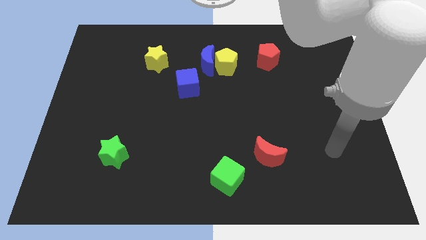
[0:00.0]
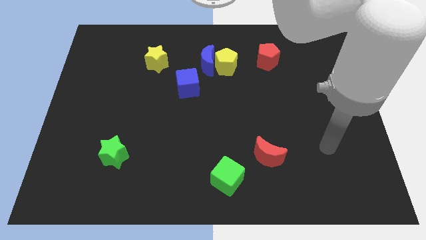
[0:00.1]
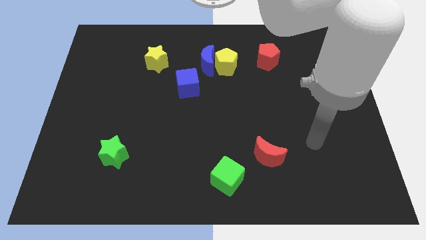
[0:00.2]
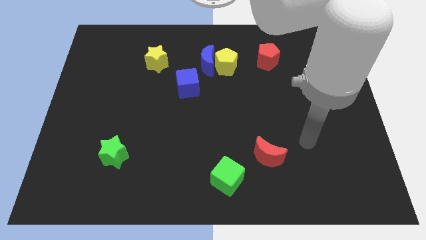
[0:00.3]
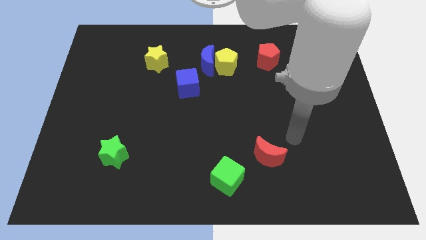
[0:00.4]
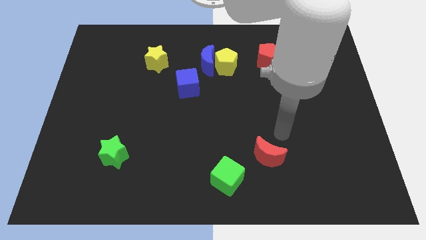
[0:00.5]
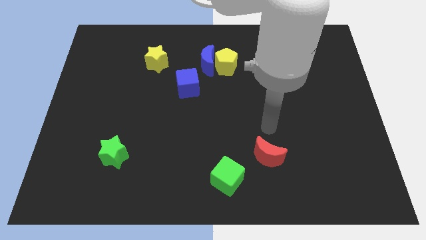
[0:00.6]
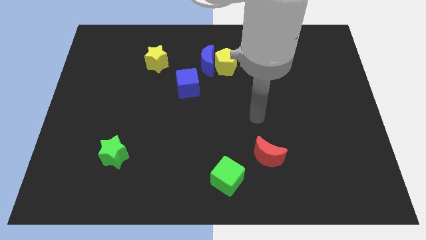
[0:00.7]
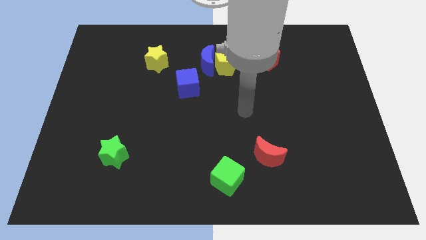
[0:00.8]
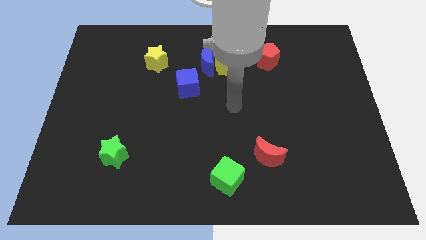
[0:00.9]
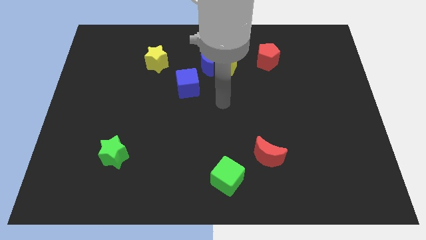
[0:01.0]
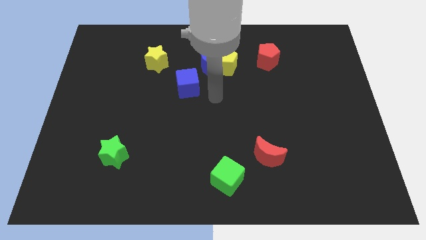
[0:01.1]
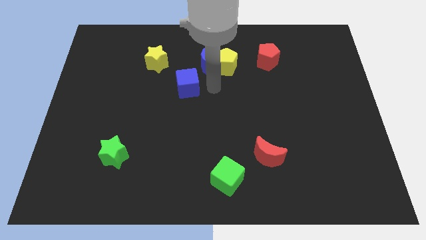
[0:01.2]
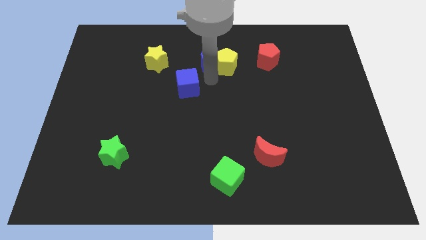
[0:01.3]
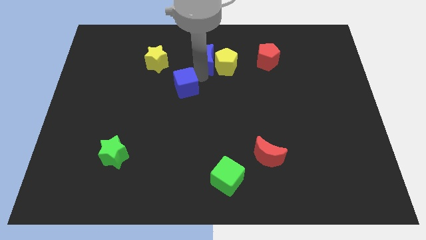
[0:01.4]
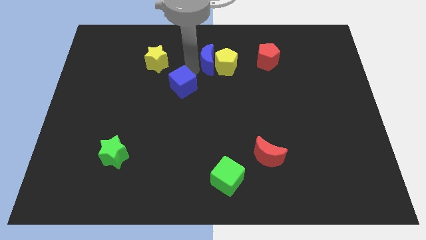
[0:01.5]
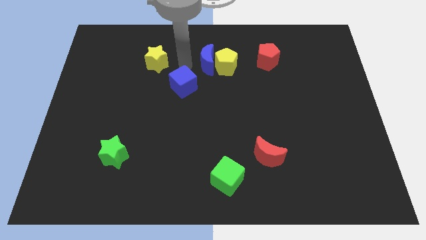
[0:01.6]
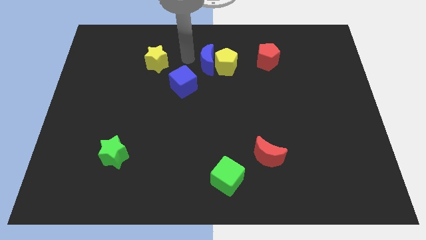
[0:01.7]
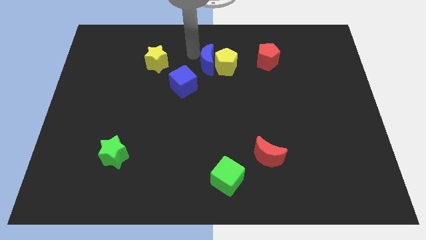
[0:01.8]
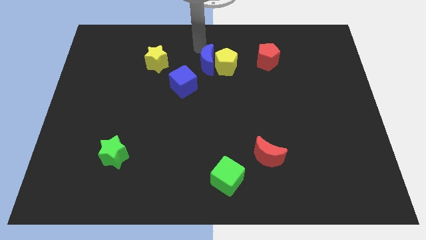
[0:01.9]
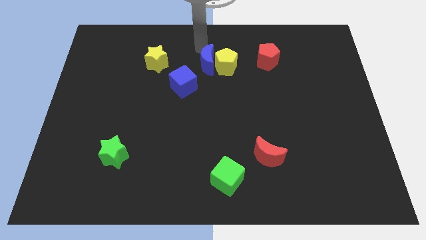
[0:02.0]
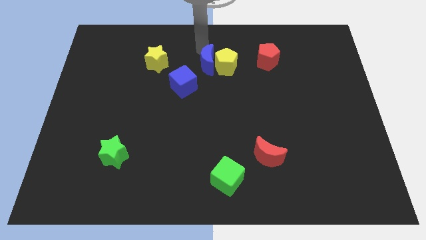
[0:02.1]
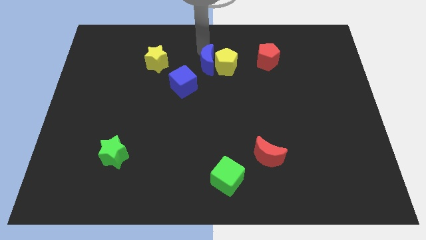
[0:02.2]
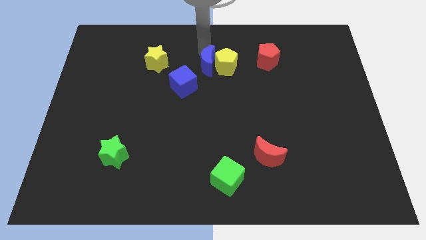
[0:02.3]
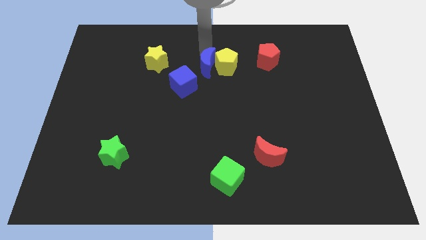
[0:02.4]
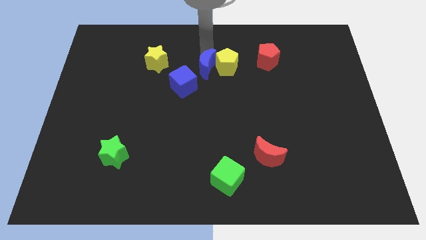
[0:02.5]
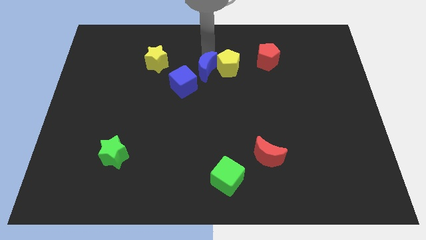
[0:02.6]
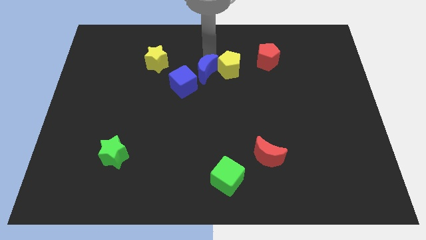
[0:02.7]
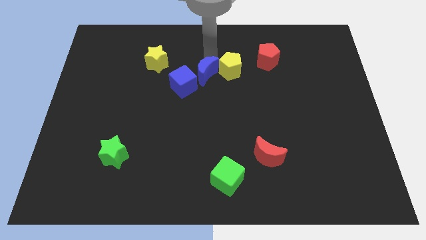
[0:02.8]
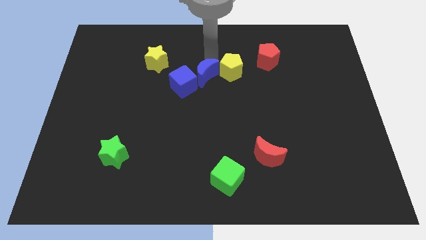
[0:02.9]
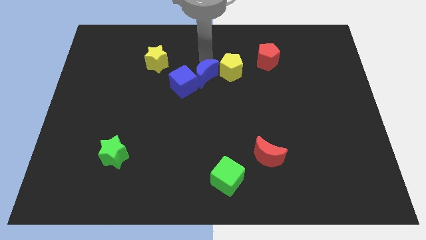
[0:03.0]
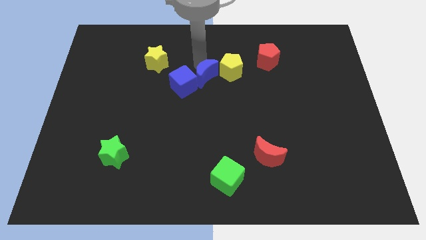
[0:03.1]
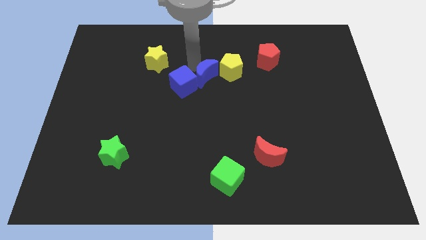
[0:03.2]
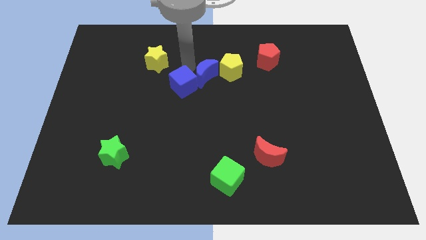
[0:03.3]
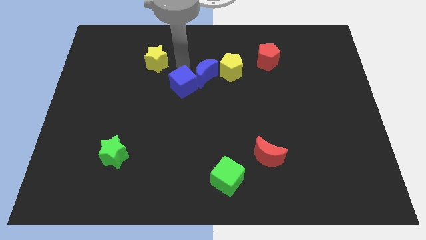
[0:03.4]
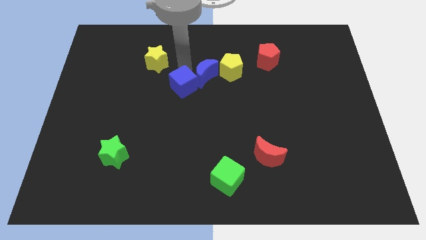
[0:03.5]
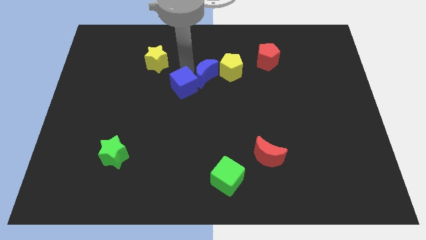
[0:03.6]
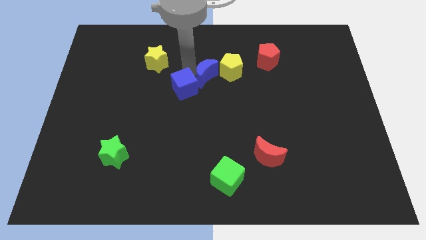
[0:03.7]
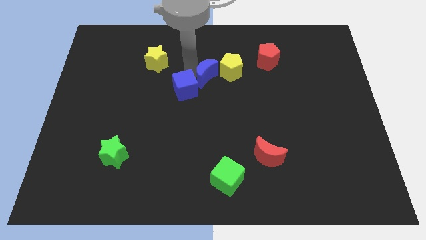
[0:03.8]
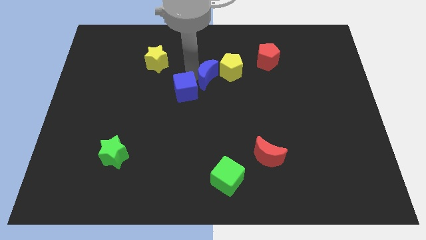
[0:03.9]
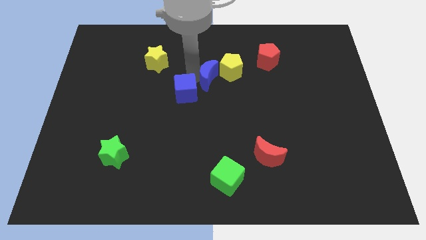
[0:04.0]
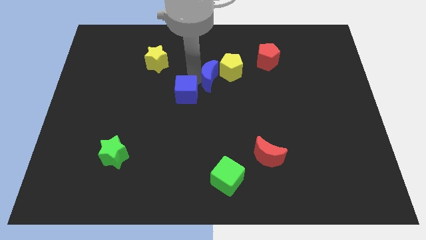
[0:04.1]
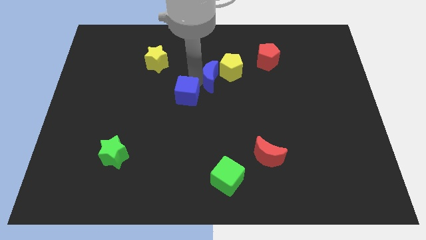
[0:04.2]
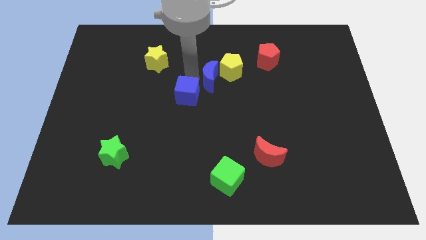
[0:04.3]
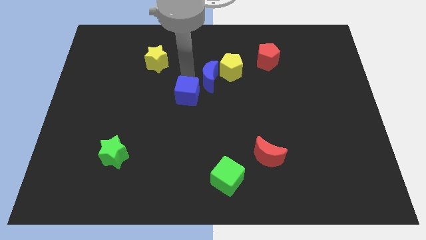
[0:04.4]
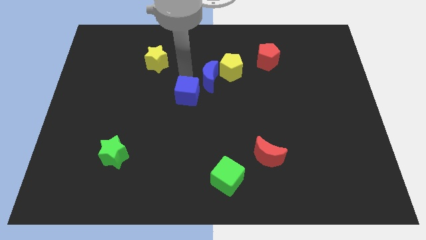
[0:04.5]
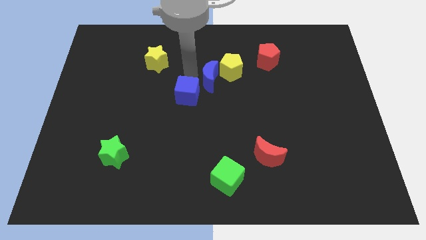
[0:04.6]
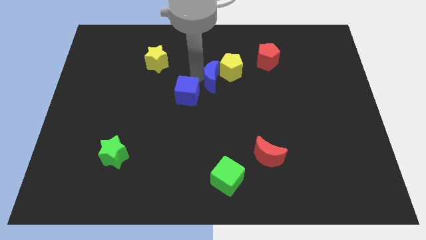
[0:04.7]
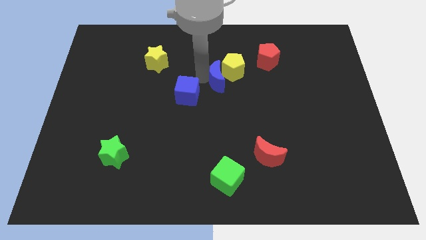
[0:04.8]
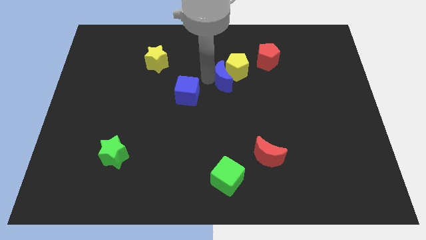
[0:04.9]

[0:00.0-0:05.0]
push the blue moon down and right a little

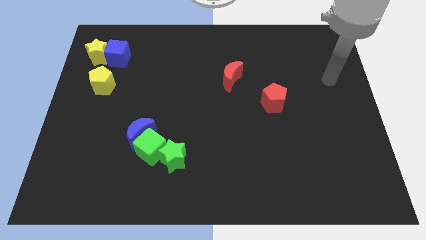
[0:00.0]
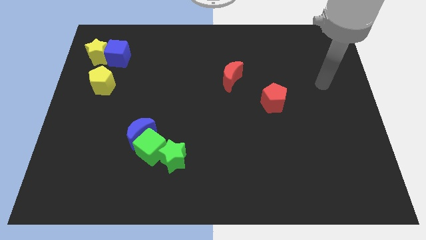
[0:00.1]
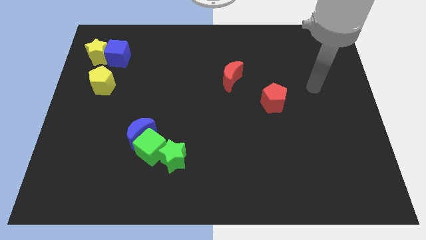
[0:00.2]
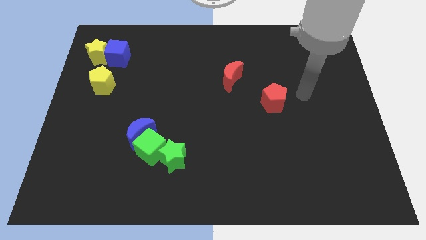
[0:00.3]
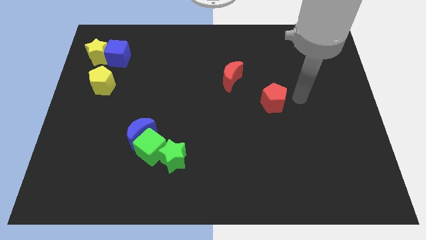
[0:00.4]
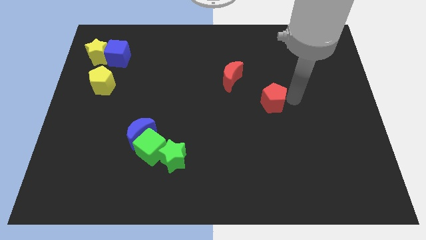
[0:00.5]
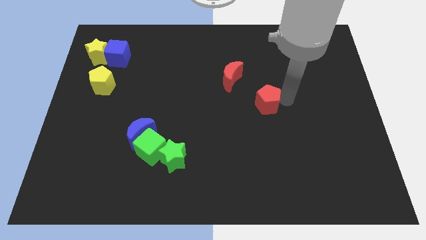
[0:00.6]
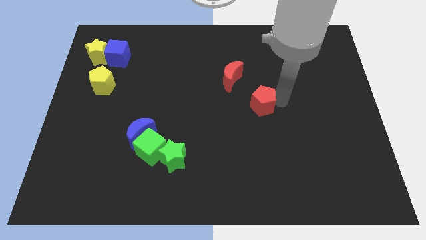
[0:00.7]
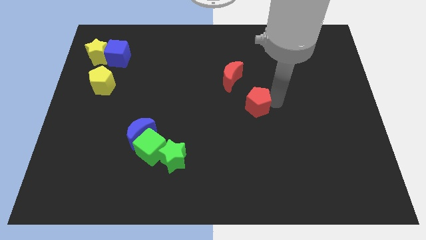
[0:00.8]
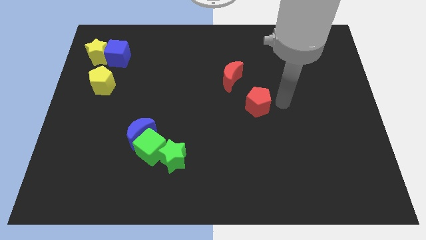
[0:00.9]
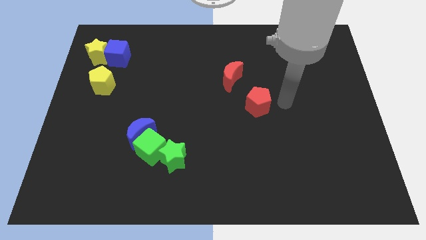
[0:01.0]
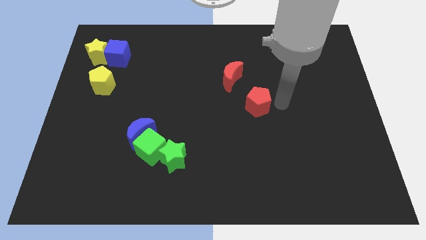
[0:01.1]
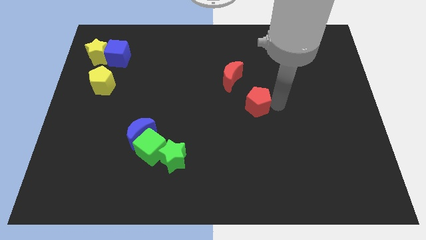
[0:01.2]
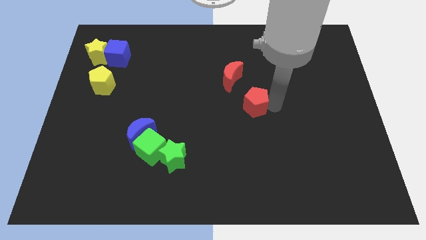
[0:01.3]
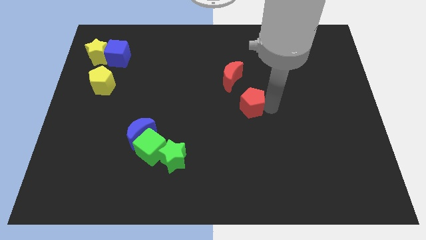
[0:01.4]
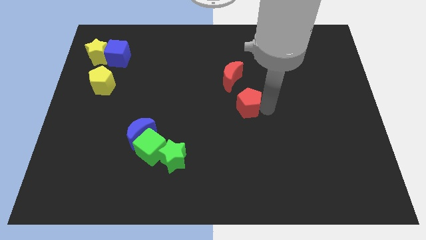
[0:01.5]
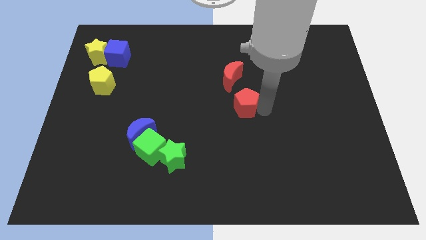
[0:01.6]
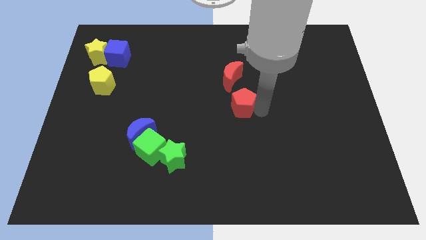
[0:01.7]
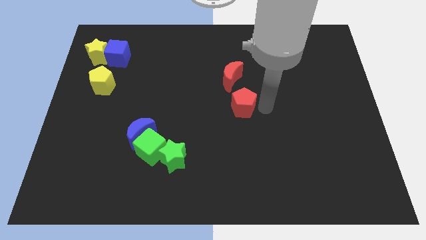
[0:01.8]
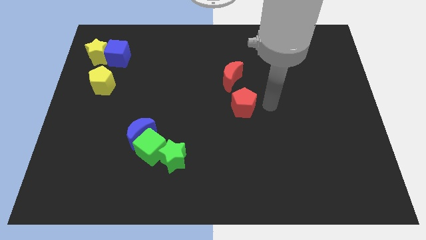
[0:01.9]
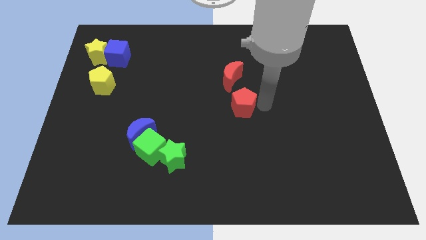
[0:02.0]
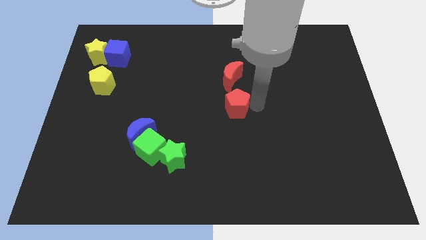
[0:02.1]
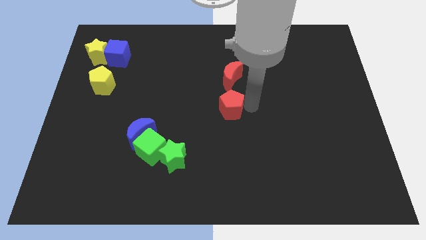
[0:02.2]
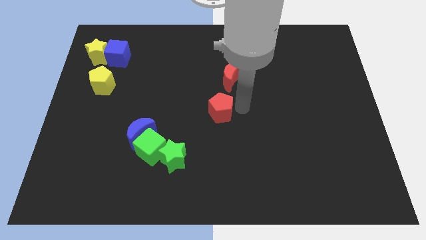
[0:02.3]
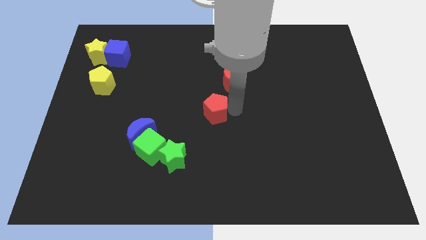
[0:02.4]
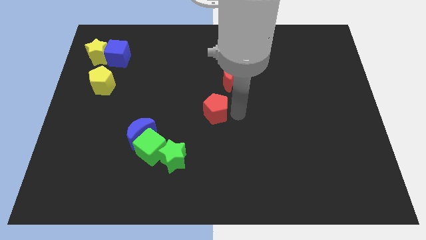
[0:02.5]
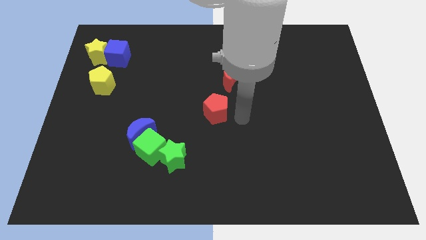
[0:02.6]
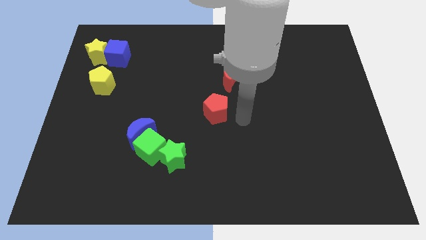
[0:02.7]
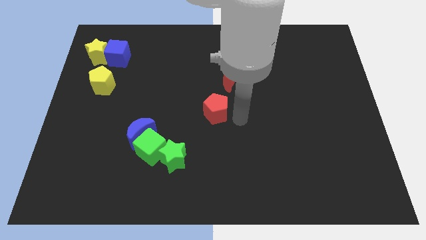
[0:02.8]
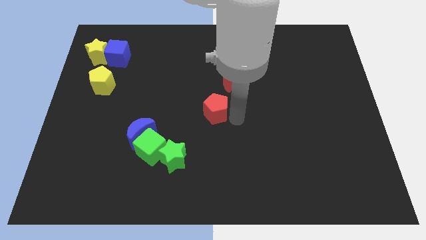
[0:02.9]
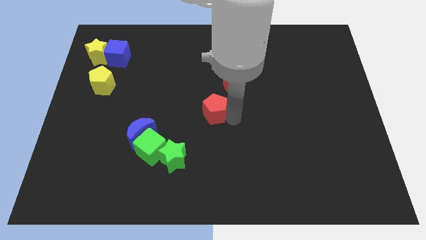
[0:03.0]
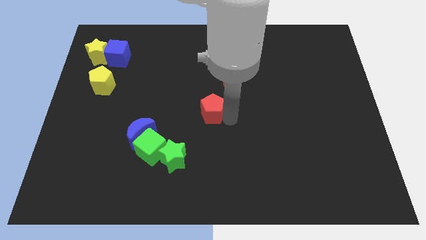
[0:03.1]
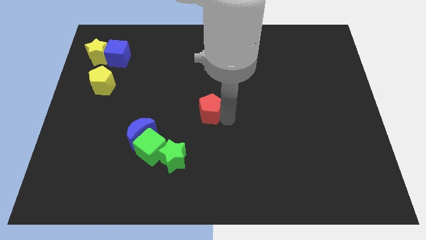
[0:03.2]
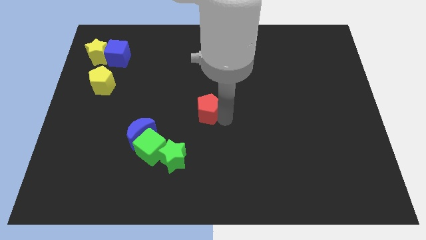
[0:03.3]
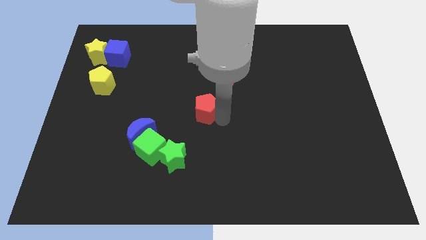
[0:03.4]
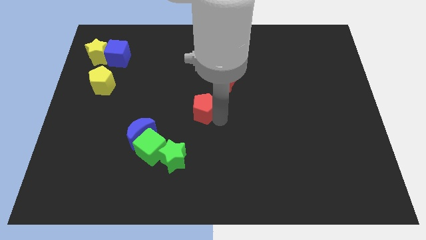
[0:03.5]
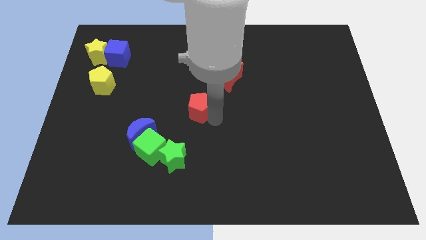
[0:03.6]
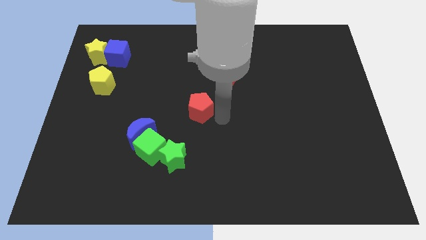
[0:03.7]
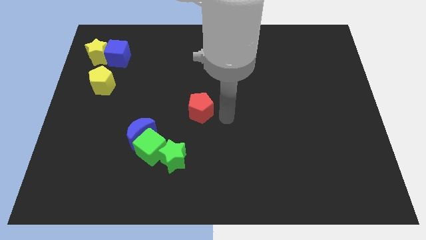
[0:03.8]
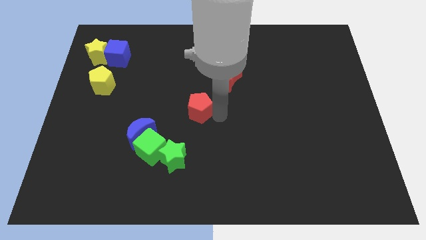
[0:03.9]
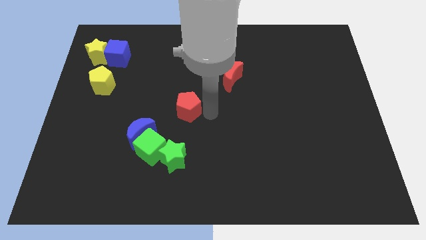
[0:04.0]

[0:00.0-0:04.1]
push the red pentagon to the left
